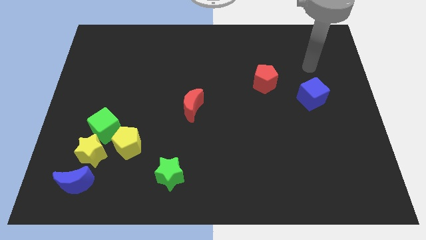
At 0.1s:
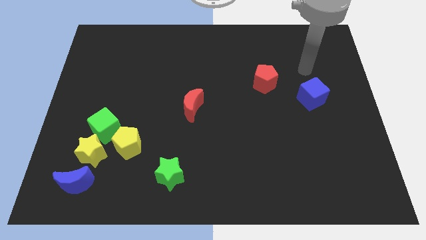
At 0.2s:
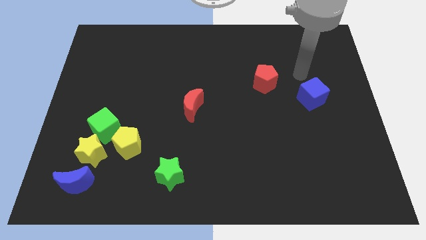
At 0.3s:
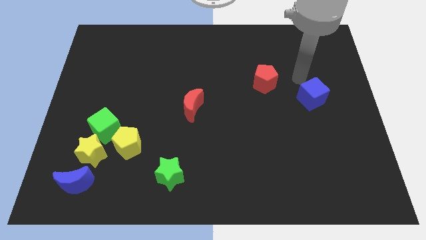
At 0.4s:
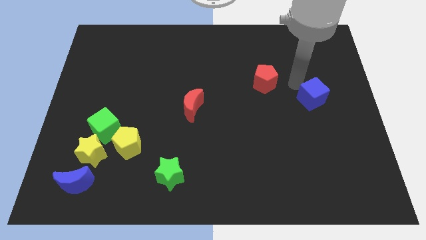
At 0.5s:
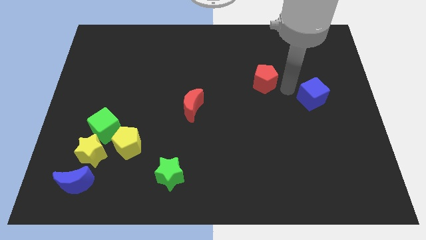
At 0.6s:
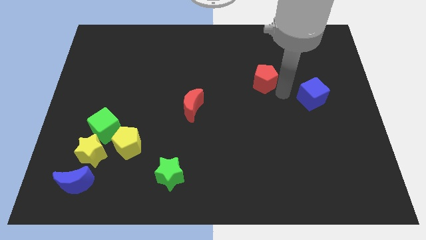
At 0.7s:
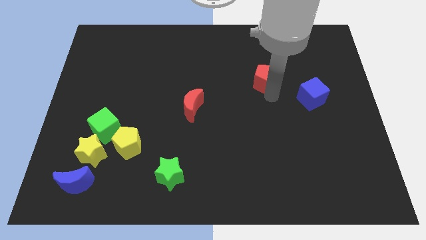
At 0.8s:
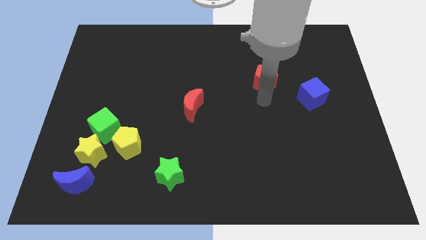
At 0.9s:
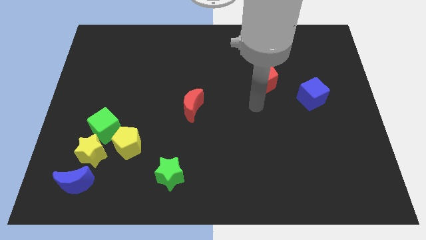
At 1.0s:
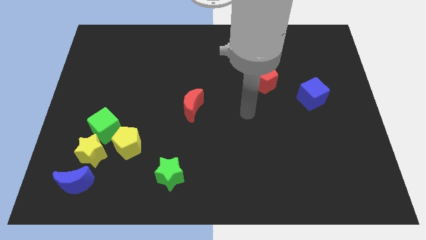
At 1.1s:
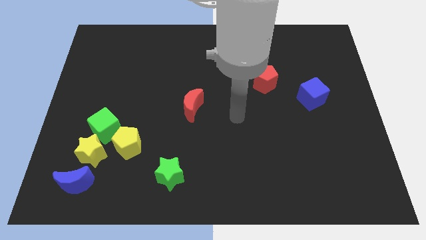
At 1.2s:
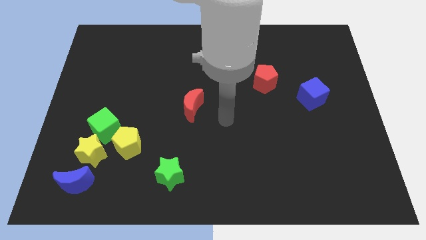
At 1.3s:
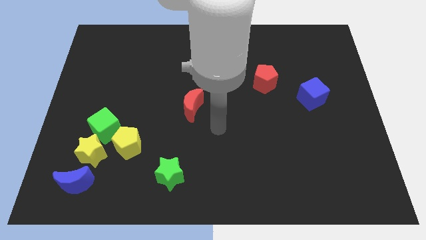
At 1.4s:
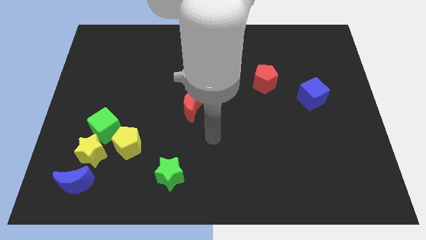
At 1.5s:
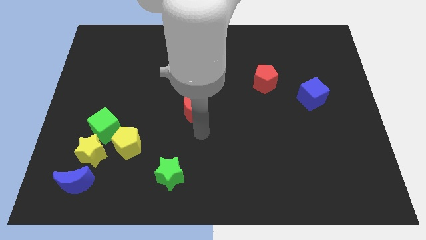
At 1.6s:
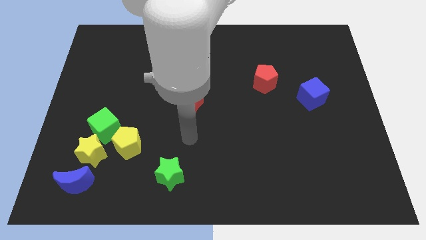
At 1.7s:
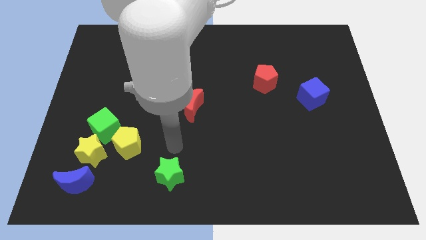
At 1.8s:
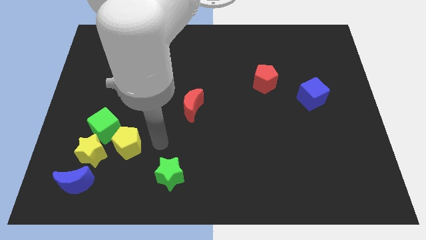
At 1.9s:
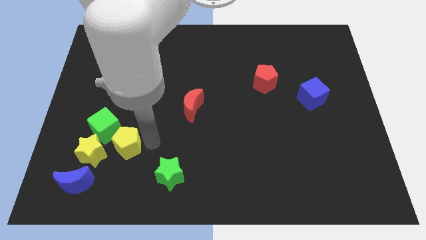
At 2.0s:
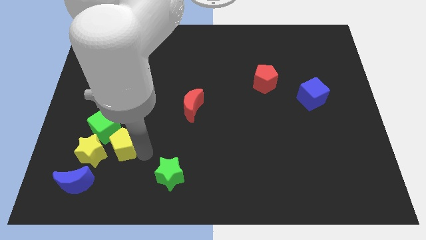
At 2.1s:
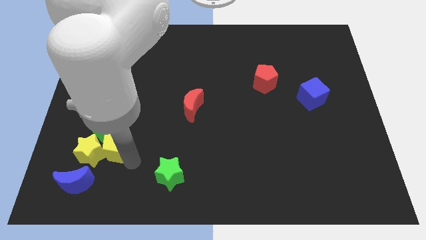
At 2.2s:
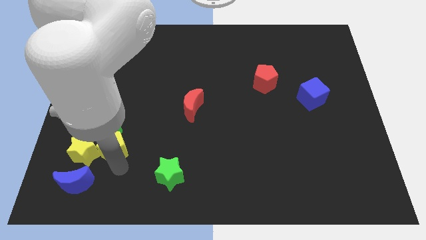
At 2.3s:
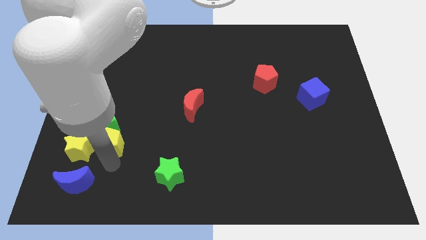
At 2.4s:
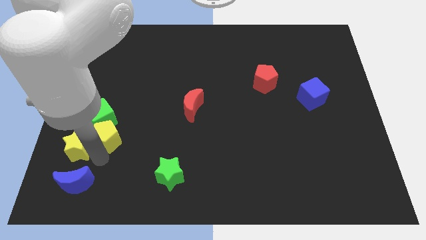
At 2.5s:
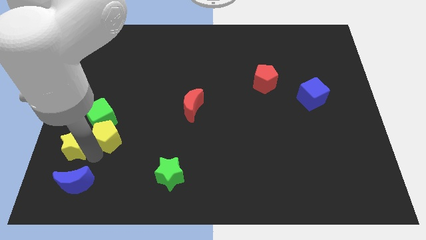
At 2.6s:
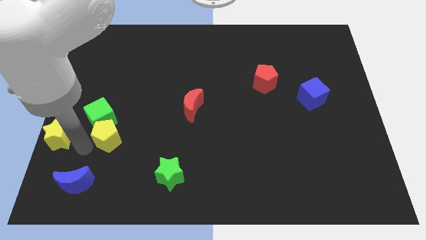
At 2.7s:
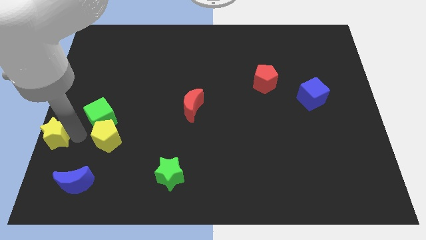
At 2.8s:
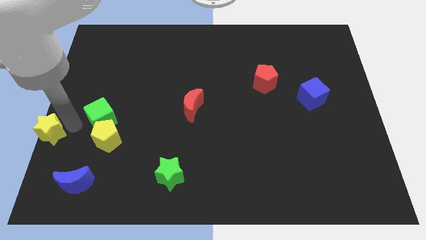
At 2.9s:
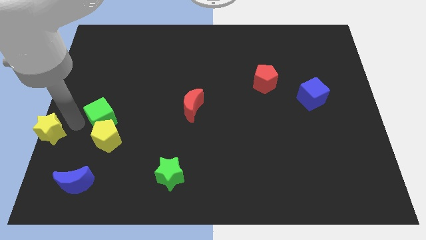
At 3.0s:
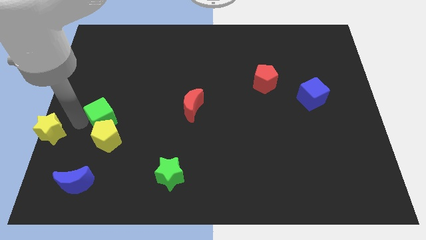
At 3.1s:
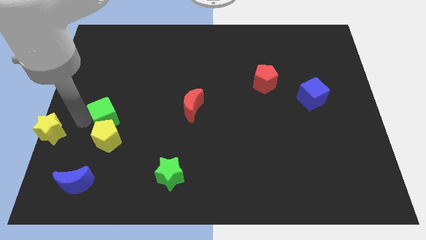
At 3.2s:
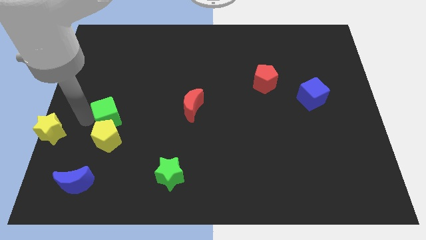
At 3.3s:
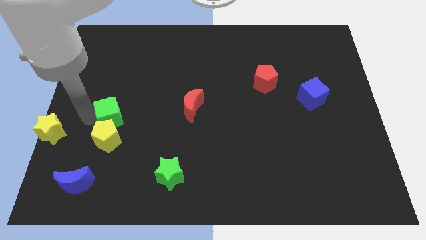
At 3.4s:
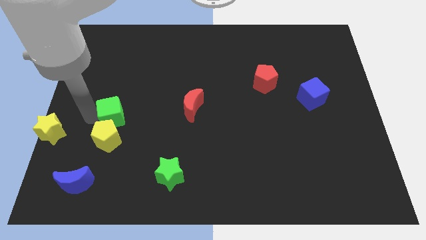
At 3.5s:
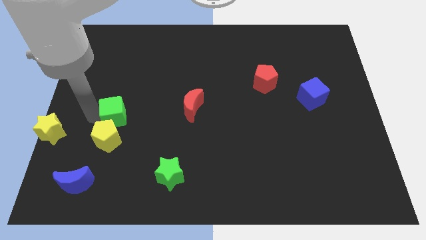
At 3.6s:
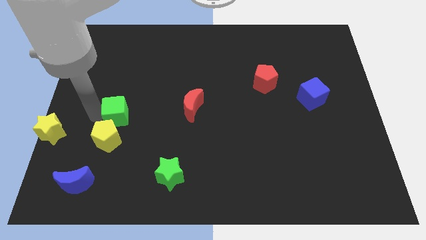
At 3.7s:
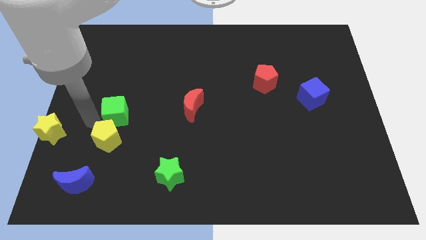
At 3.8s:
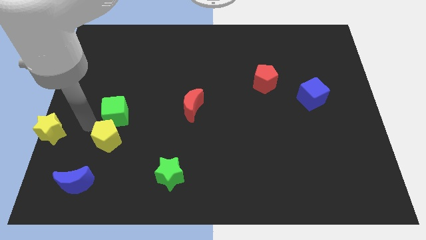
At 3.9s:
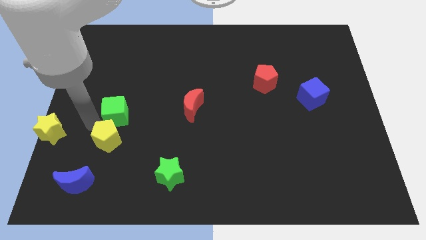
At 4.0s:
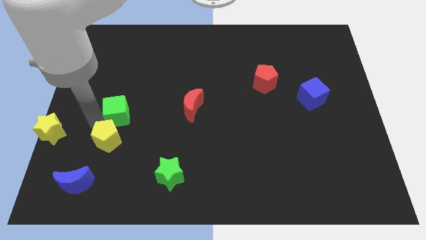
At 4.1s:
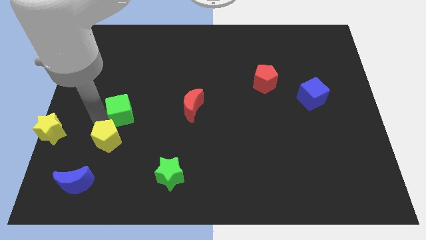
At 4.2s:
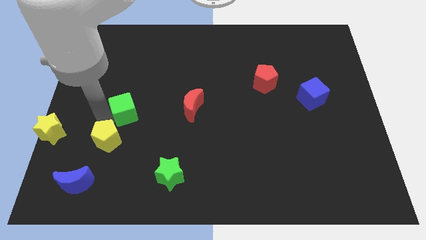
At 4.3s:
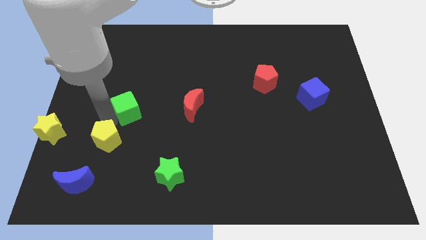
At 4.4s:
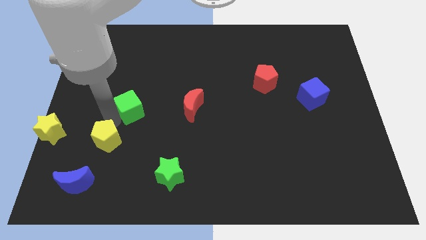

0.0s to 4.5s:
push the green cube a little up and then right

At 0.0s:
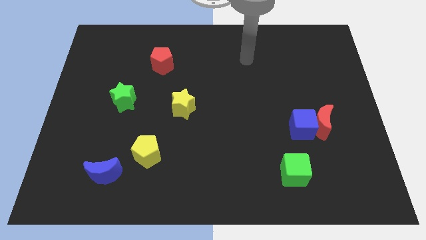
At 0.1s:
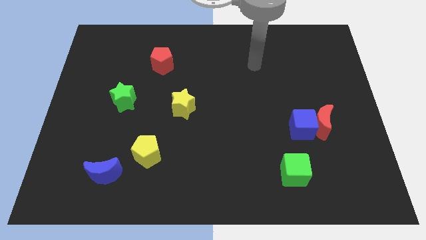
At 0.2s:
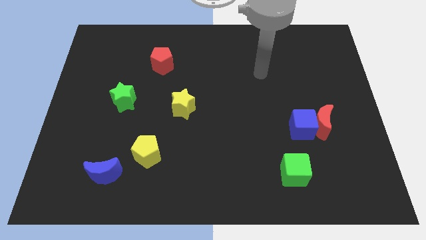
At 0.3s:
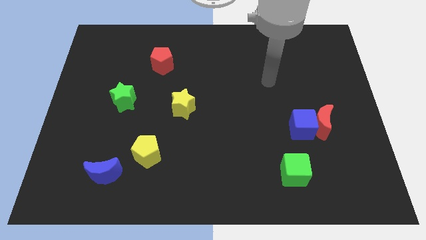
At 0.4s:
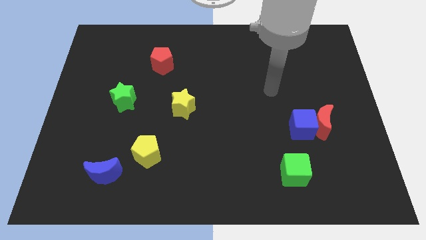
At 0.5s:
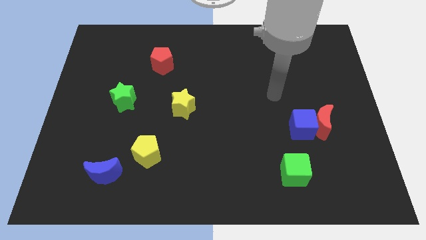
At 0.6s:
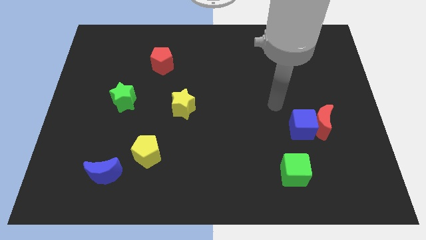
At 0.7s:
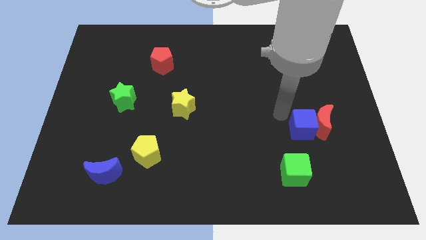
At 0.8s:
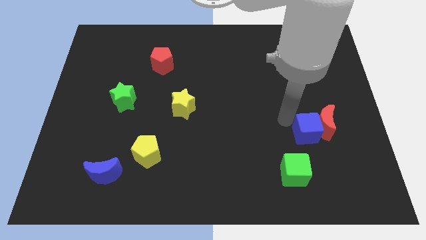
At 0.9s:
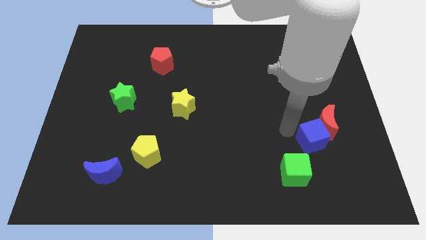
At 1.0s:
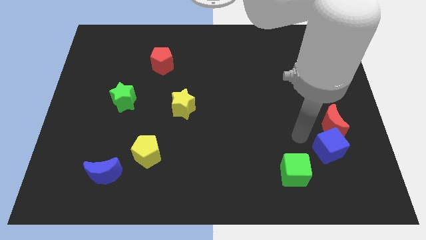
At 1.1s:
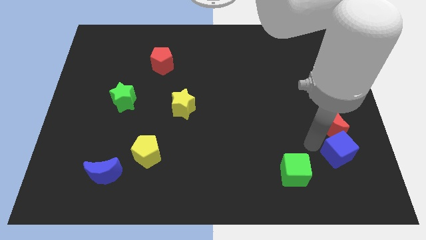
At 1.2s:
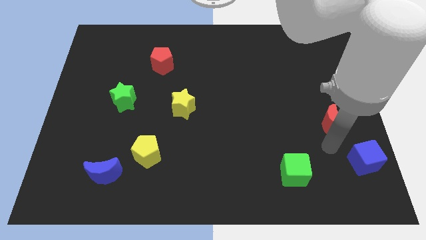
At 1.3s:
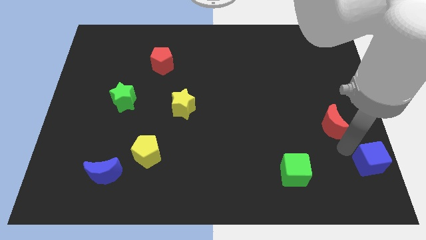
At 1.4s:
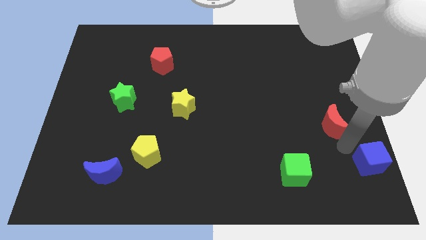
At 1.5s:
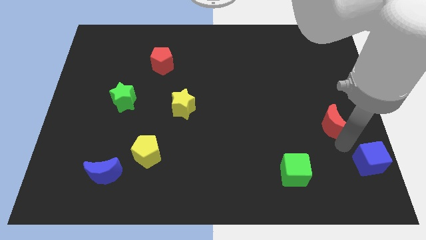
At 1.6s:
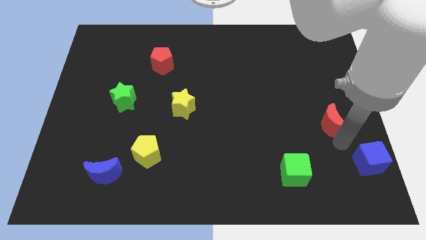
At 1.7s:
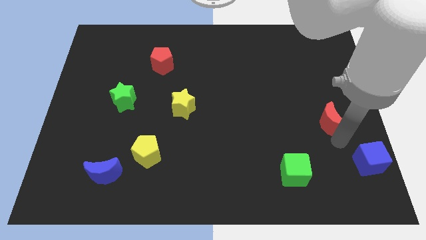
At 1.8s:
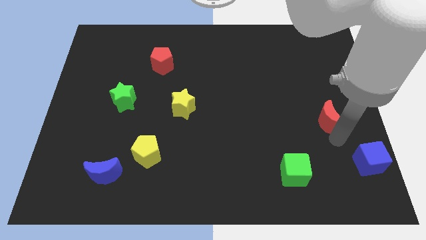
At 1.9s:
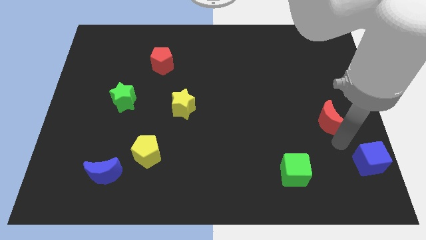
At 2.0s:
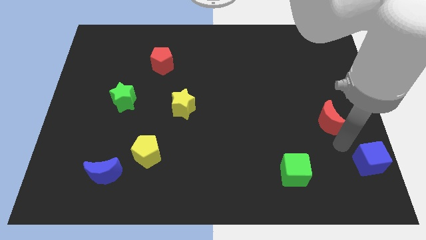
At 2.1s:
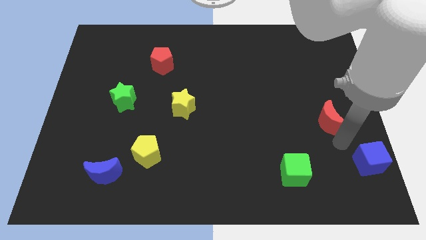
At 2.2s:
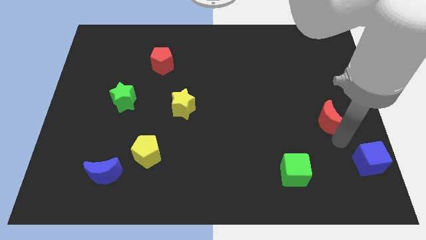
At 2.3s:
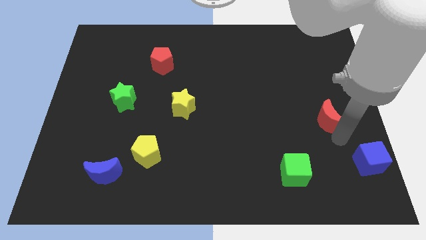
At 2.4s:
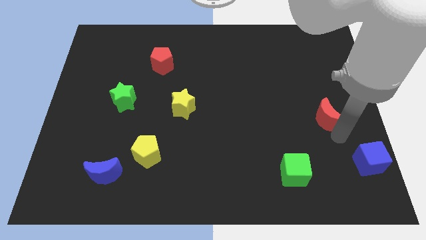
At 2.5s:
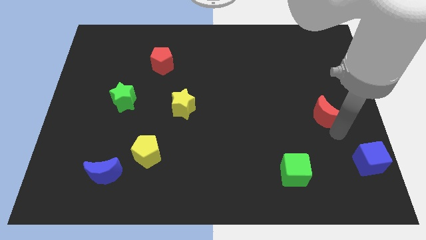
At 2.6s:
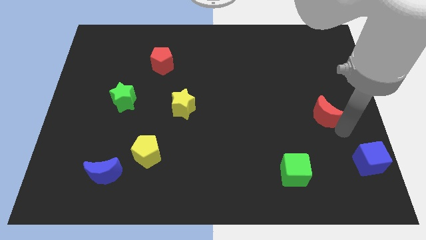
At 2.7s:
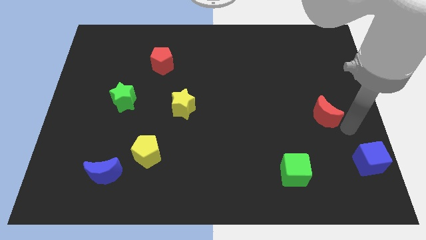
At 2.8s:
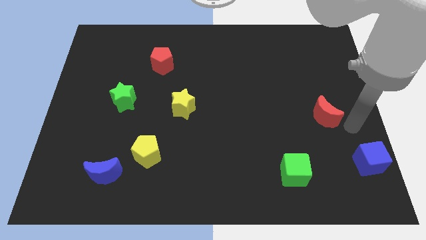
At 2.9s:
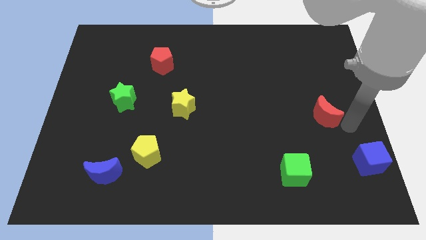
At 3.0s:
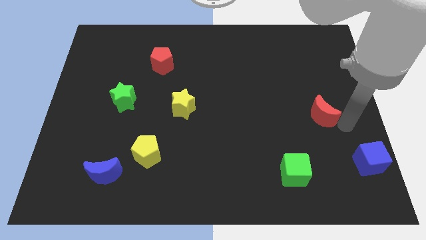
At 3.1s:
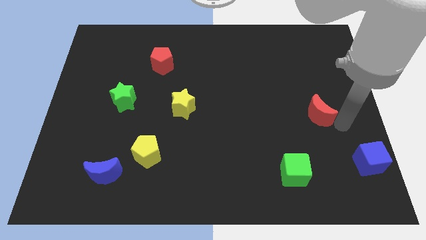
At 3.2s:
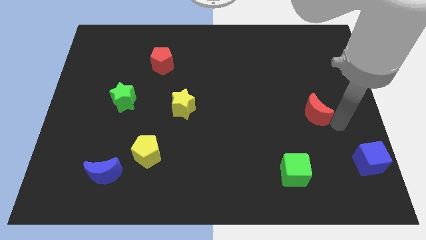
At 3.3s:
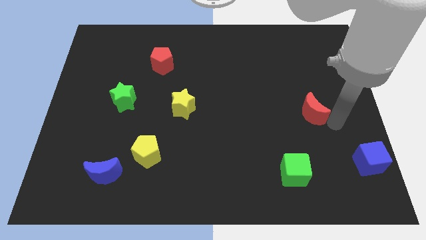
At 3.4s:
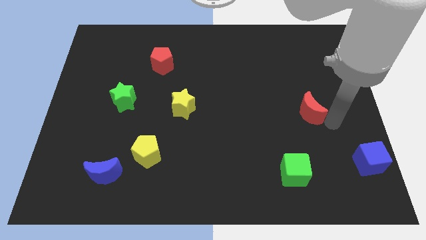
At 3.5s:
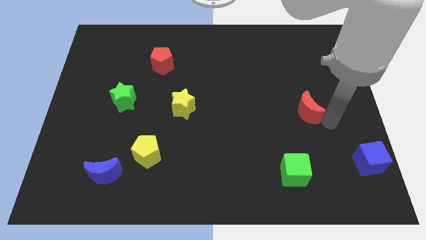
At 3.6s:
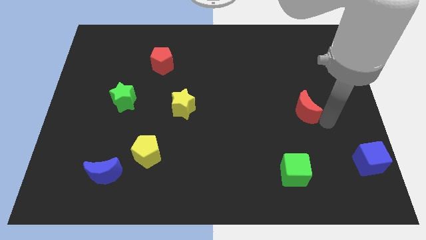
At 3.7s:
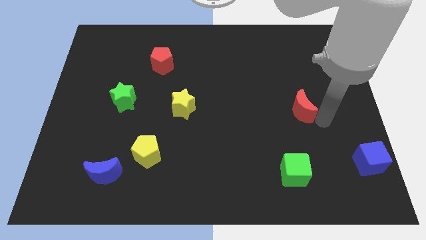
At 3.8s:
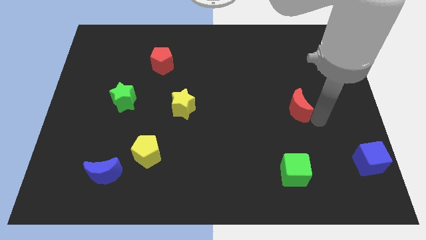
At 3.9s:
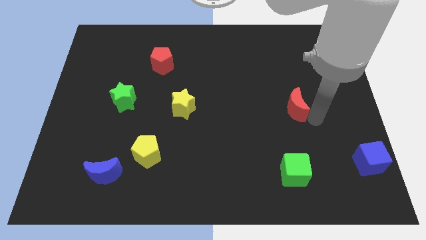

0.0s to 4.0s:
move the red moon a little diagonally upwards and left
